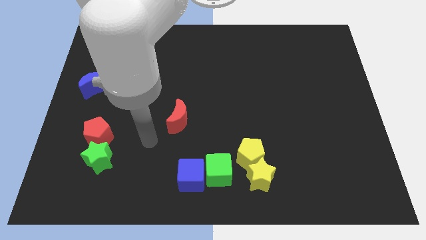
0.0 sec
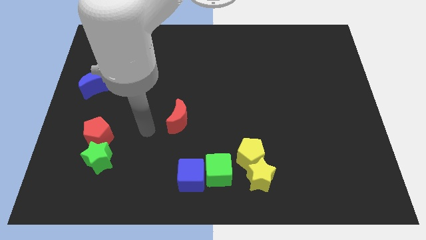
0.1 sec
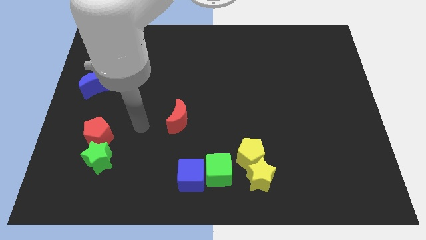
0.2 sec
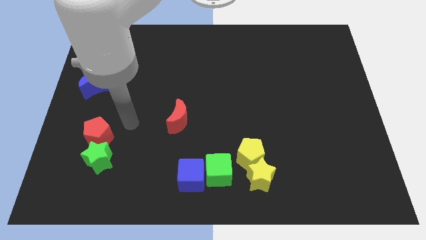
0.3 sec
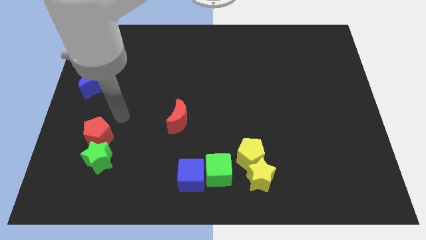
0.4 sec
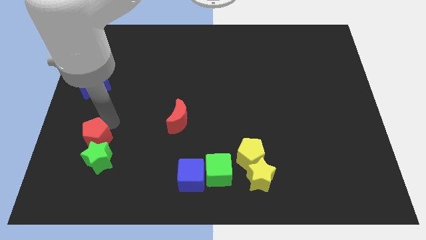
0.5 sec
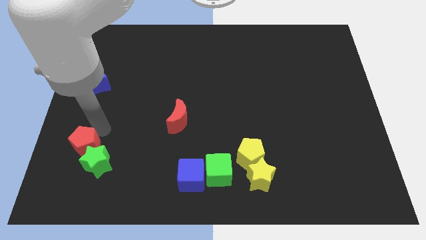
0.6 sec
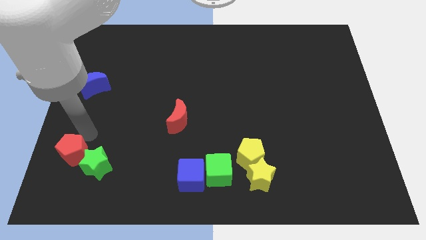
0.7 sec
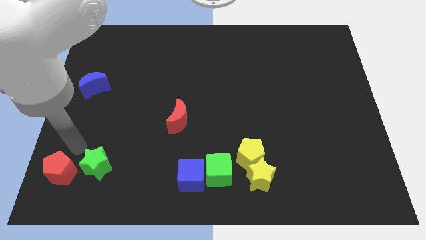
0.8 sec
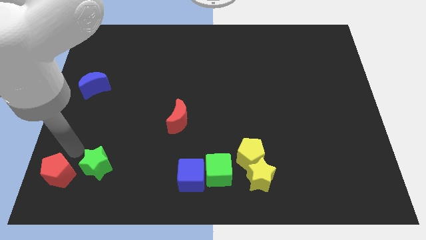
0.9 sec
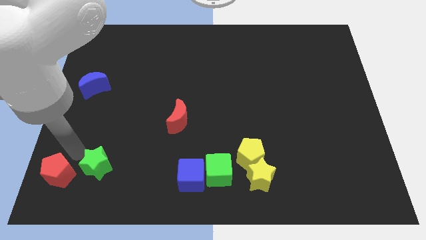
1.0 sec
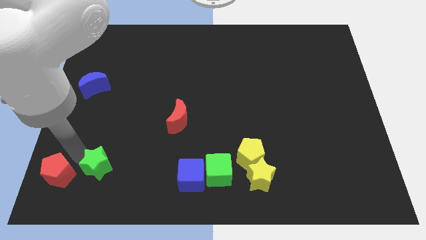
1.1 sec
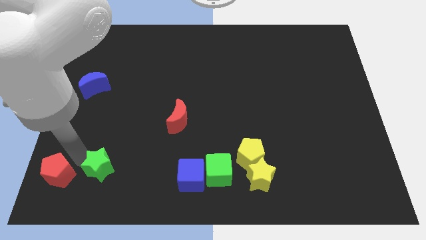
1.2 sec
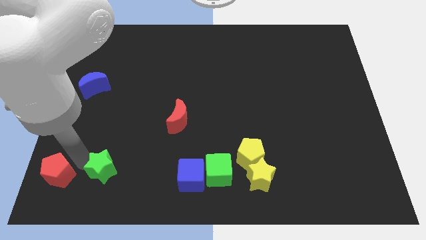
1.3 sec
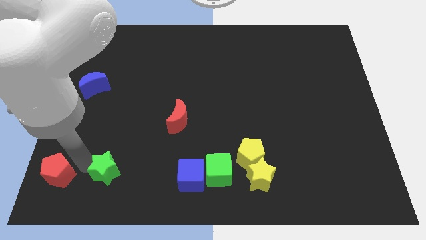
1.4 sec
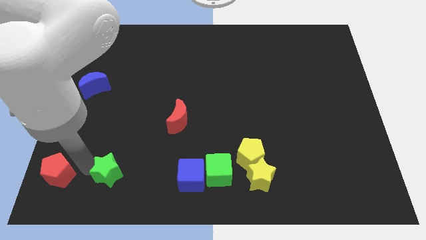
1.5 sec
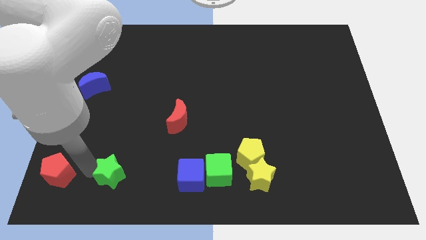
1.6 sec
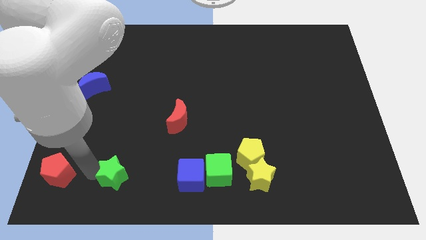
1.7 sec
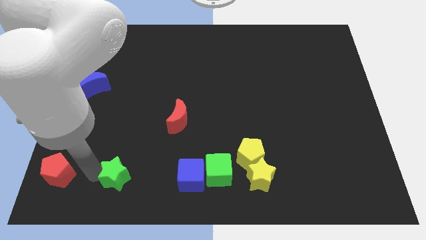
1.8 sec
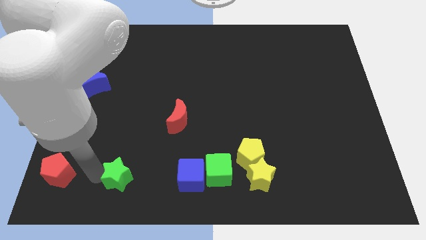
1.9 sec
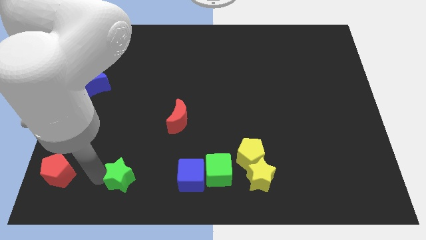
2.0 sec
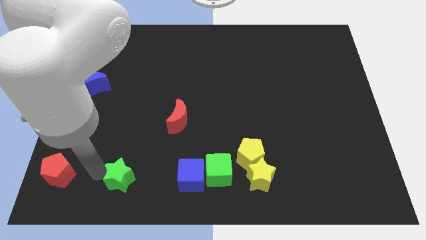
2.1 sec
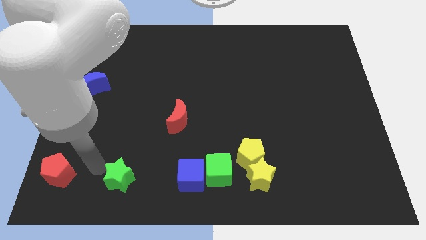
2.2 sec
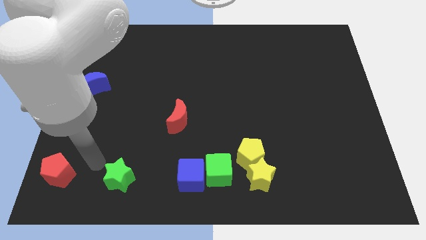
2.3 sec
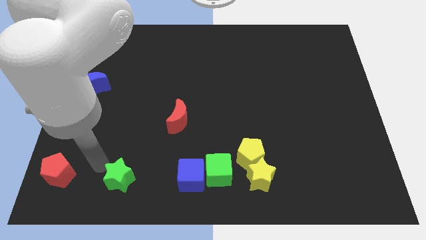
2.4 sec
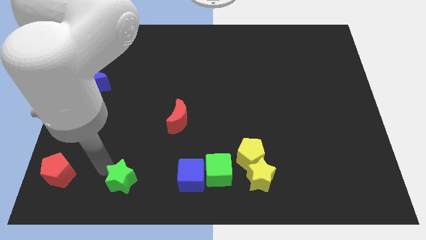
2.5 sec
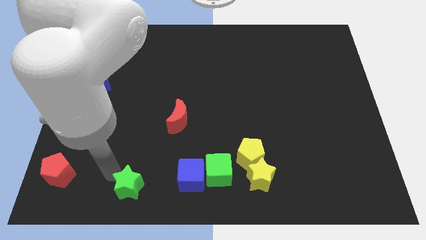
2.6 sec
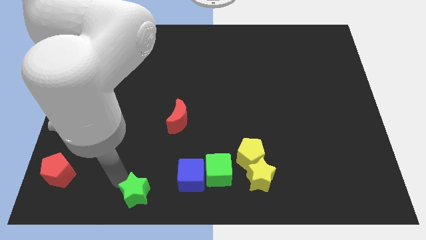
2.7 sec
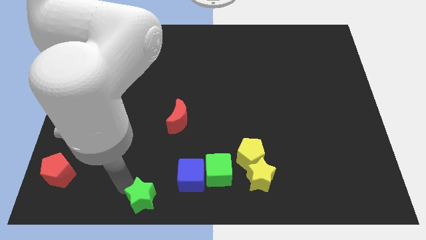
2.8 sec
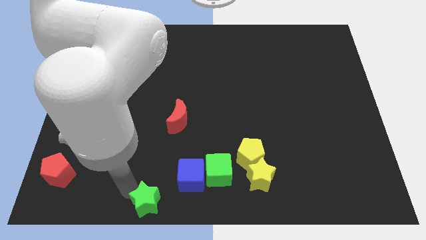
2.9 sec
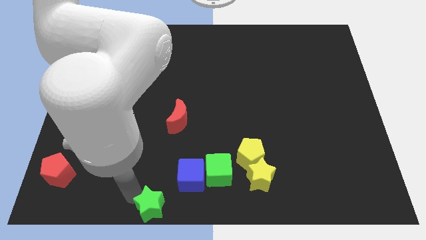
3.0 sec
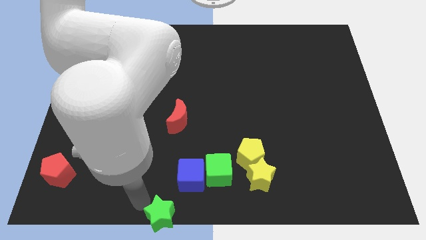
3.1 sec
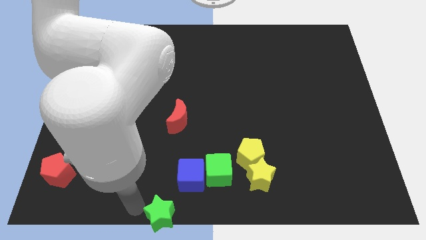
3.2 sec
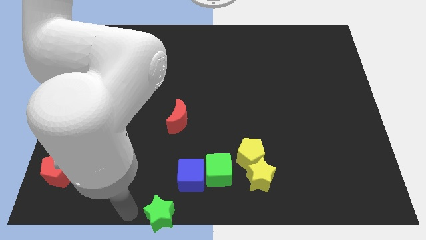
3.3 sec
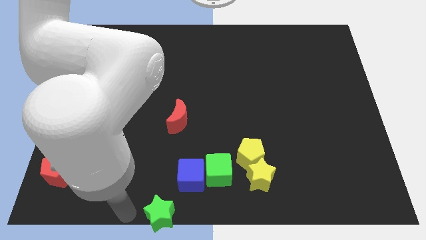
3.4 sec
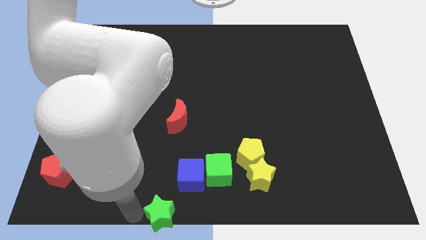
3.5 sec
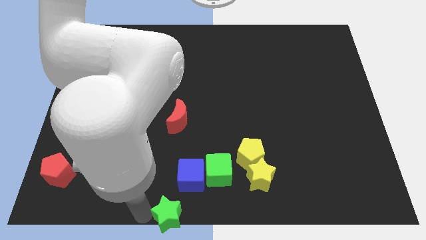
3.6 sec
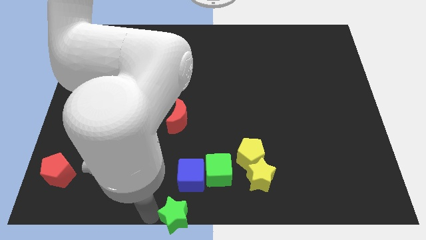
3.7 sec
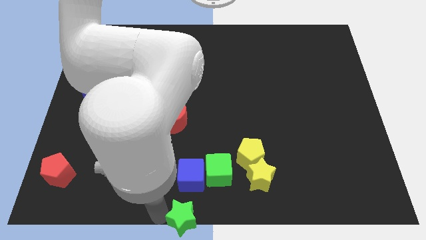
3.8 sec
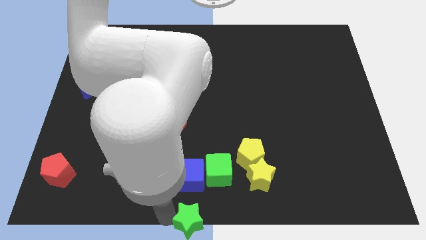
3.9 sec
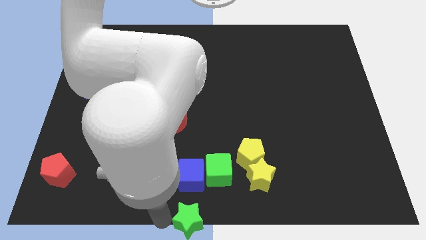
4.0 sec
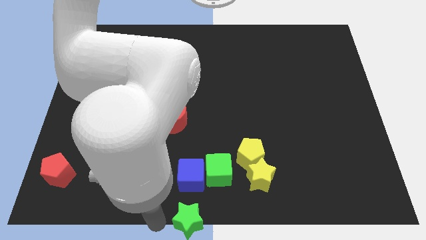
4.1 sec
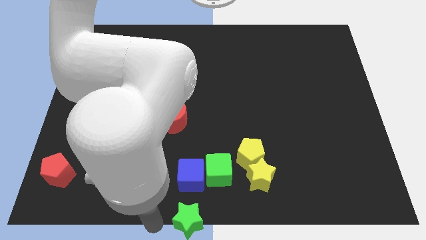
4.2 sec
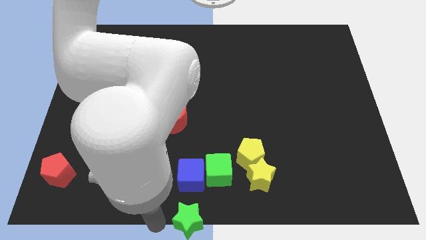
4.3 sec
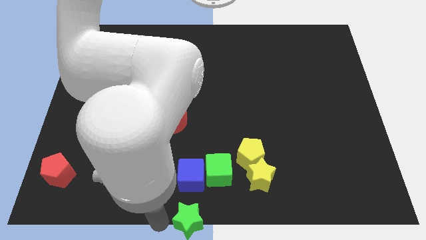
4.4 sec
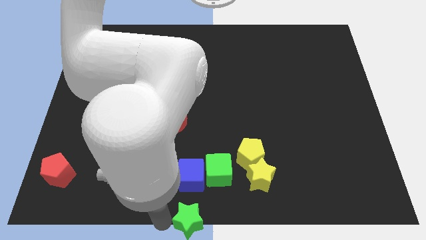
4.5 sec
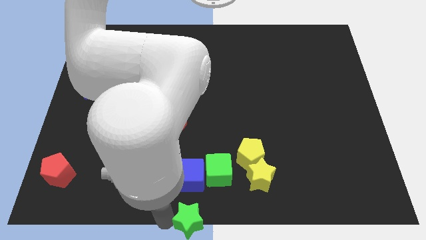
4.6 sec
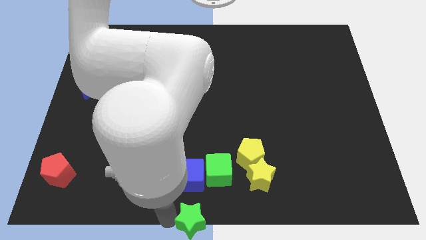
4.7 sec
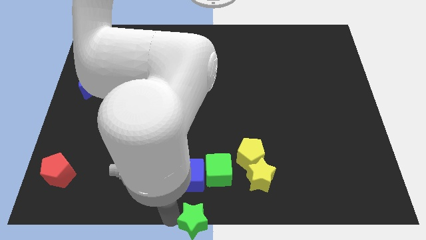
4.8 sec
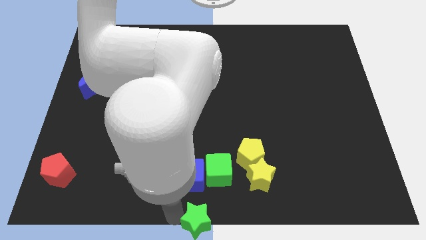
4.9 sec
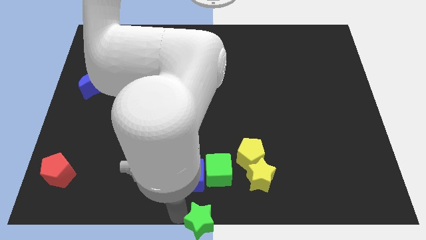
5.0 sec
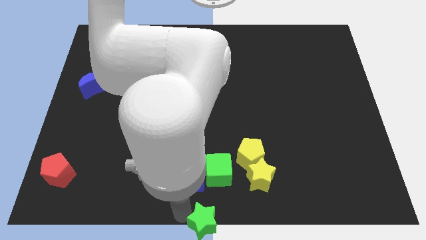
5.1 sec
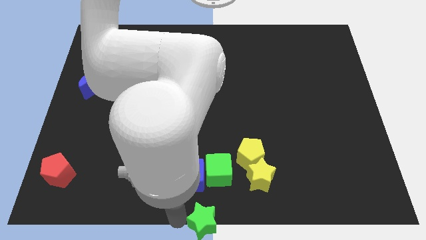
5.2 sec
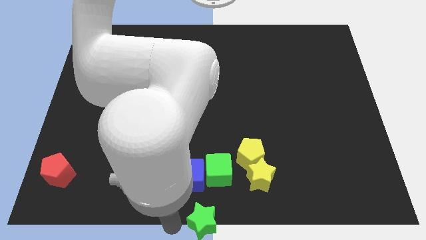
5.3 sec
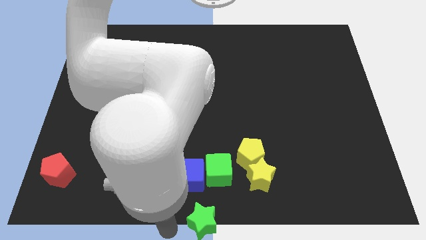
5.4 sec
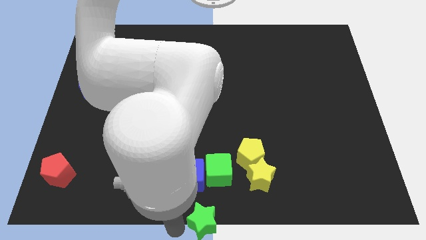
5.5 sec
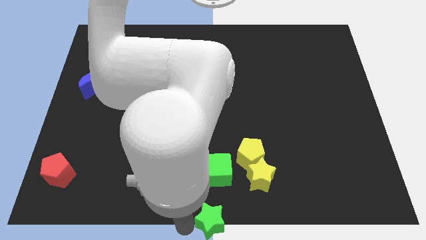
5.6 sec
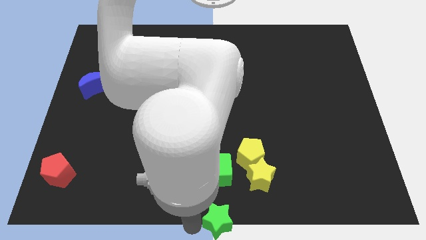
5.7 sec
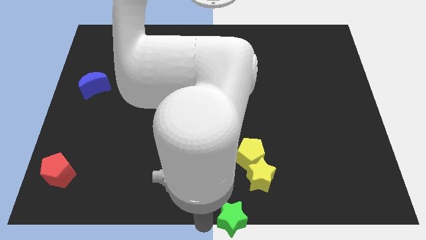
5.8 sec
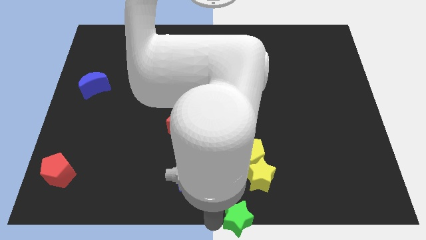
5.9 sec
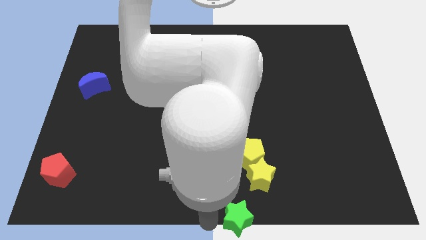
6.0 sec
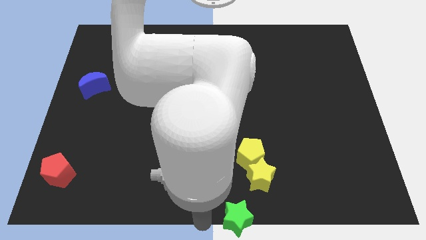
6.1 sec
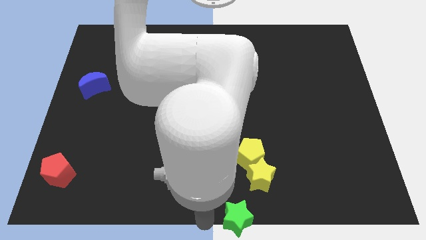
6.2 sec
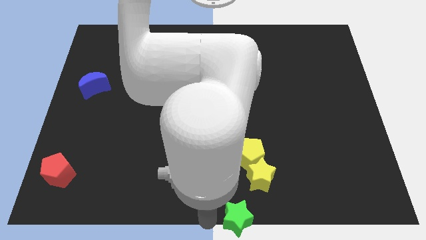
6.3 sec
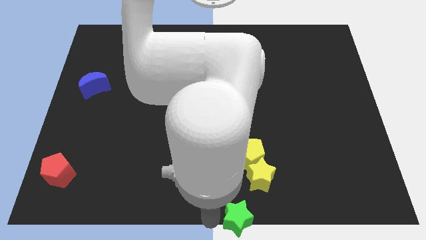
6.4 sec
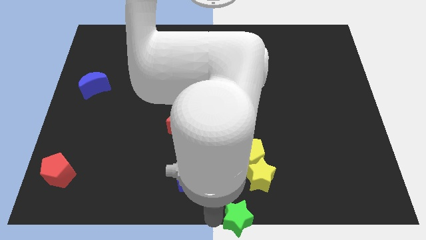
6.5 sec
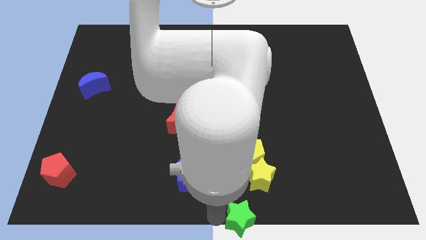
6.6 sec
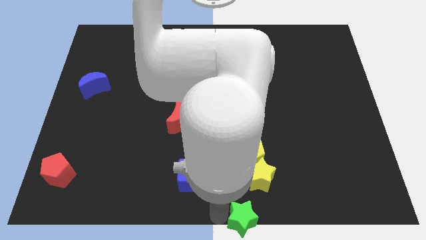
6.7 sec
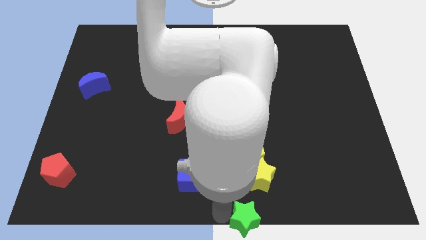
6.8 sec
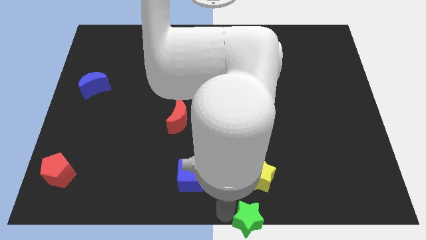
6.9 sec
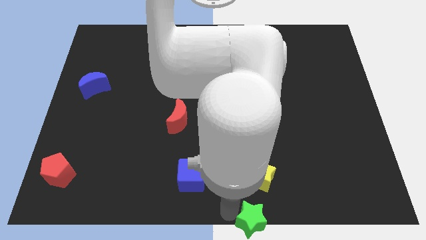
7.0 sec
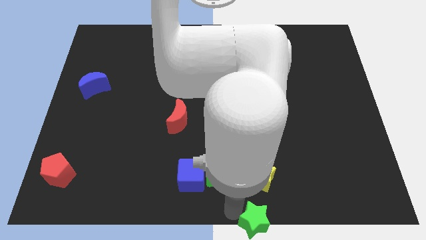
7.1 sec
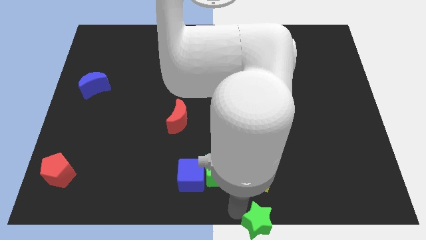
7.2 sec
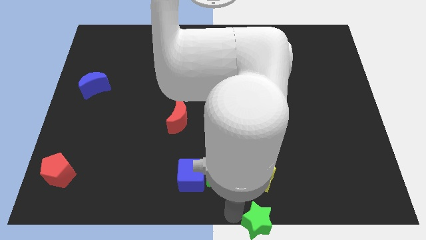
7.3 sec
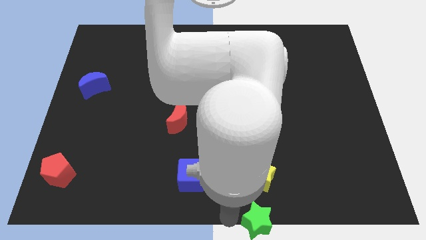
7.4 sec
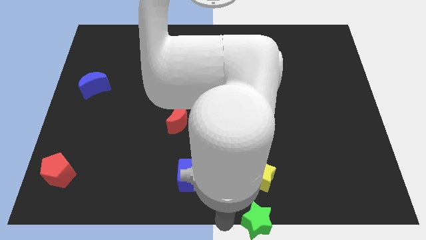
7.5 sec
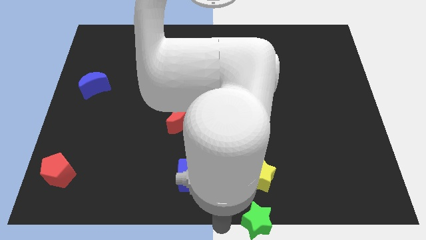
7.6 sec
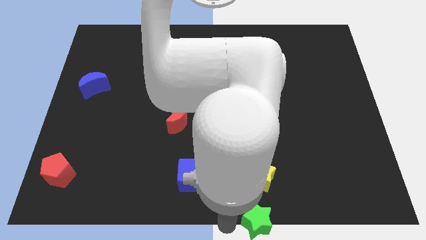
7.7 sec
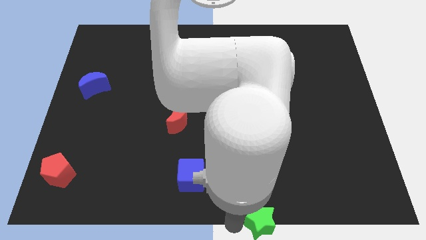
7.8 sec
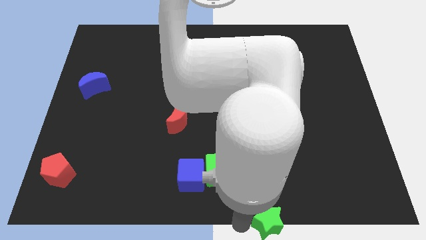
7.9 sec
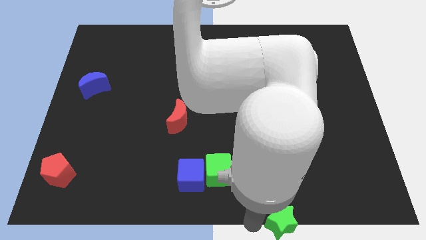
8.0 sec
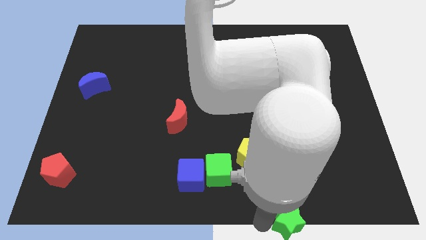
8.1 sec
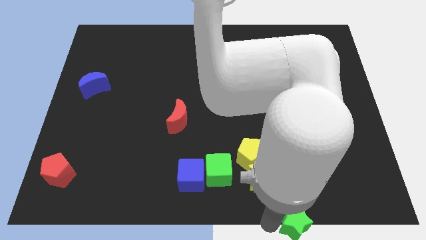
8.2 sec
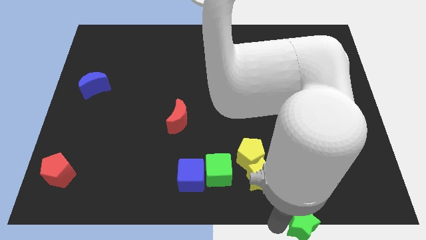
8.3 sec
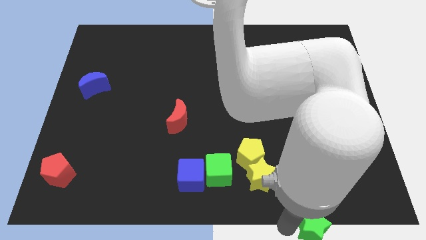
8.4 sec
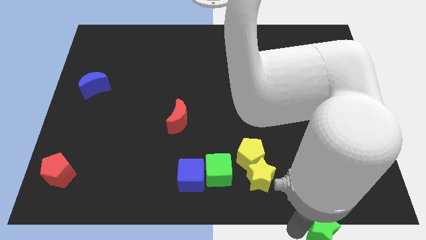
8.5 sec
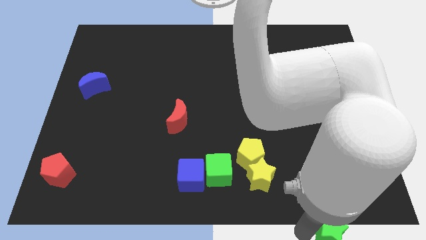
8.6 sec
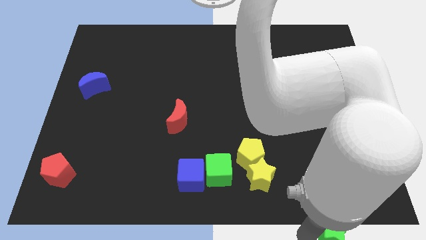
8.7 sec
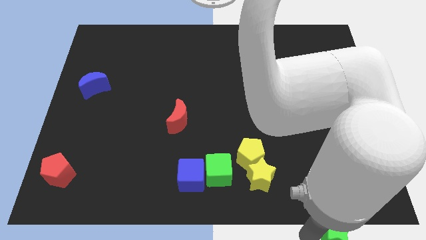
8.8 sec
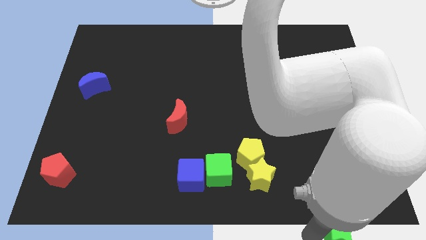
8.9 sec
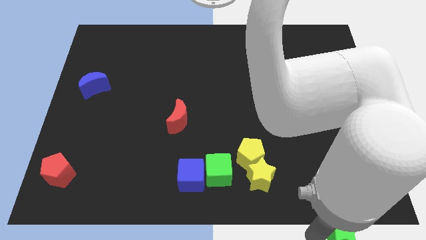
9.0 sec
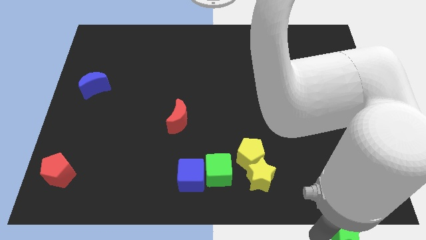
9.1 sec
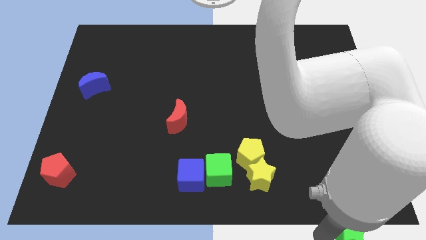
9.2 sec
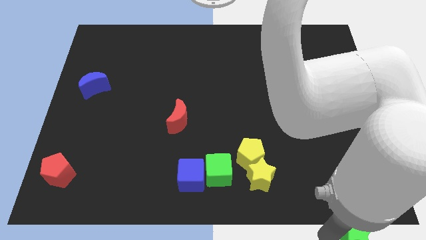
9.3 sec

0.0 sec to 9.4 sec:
slide the green star to the bottom right corner
